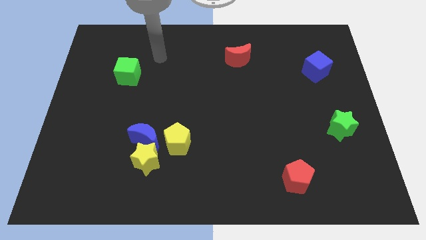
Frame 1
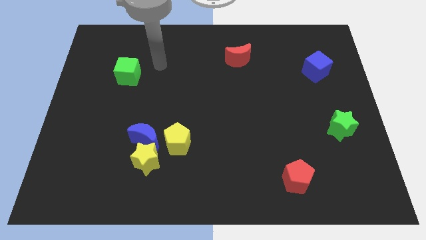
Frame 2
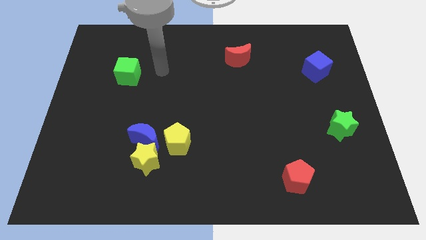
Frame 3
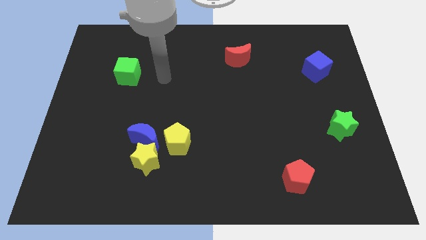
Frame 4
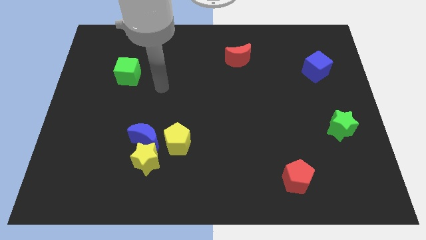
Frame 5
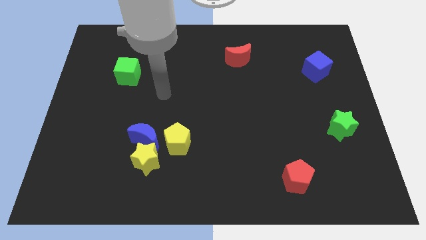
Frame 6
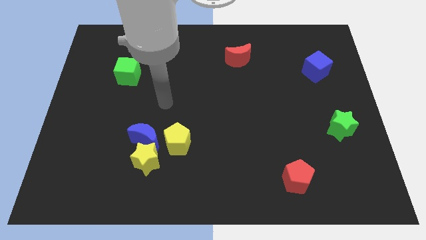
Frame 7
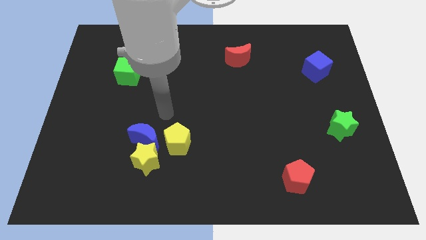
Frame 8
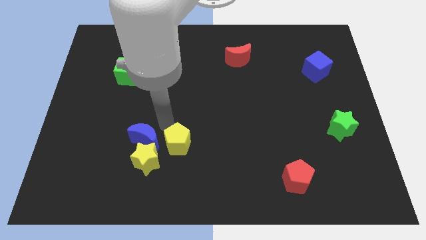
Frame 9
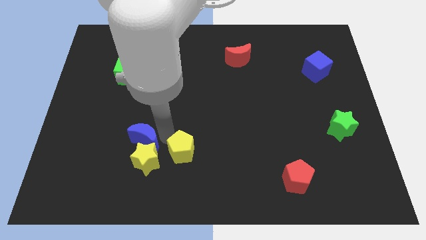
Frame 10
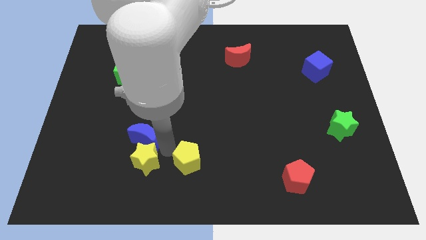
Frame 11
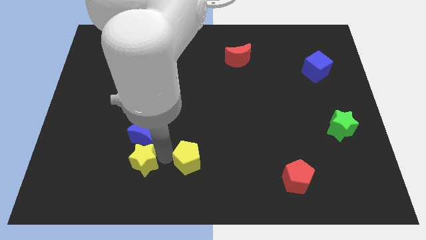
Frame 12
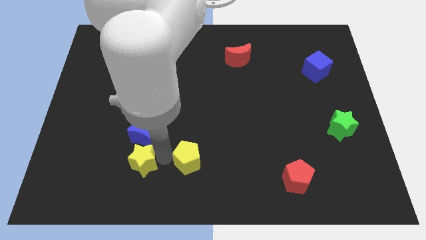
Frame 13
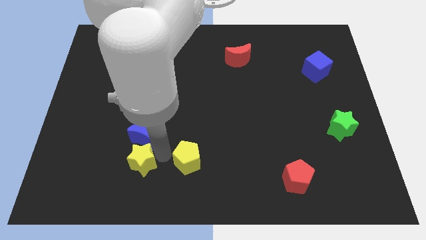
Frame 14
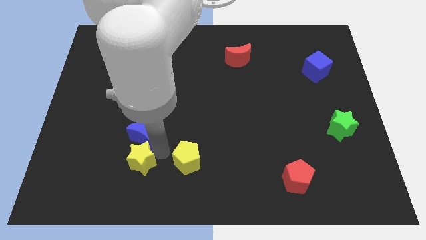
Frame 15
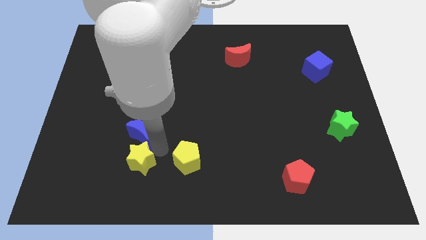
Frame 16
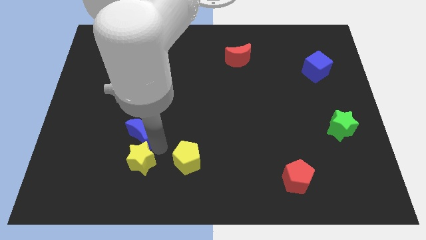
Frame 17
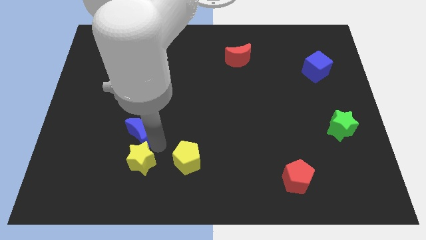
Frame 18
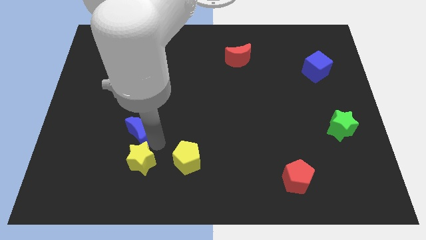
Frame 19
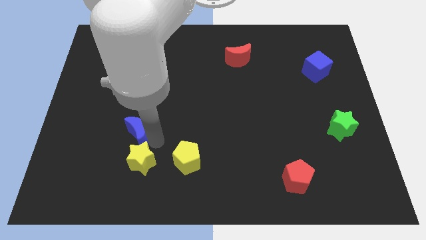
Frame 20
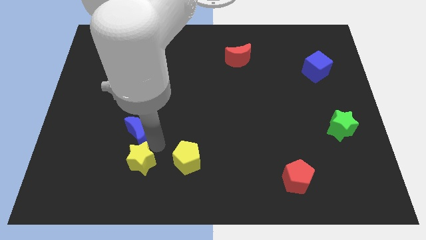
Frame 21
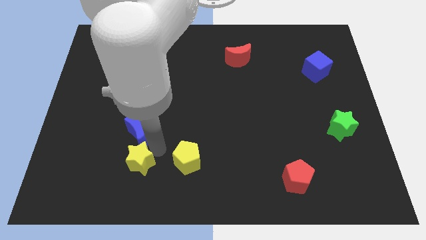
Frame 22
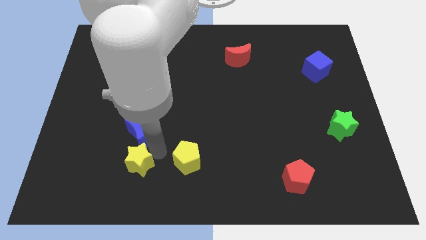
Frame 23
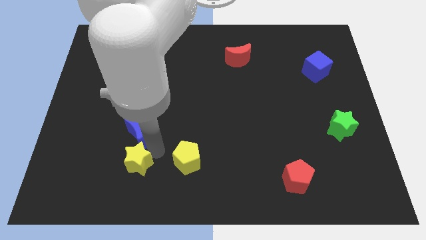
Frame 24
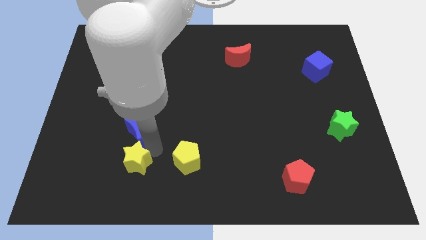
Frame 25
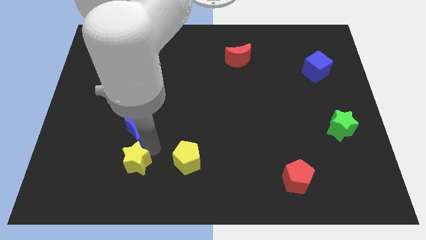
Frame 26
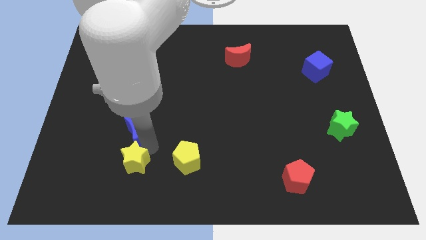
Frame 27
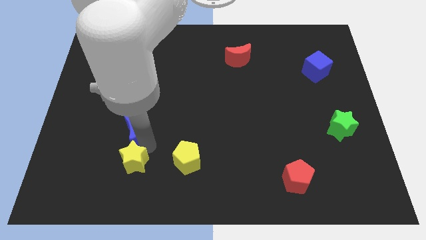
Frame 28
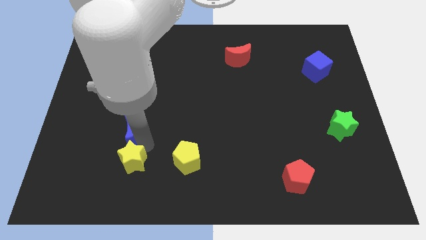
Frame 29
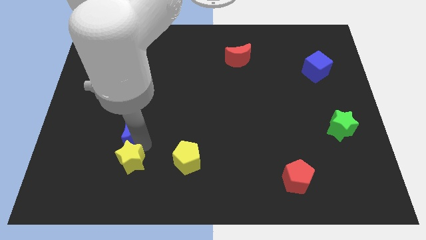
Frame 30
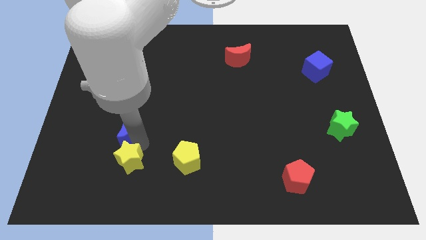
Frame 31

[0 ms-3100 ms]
move the blue moon away from the yellow star and yellow pentagon

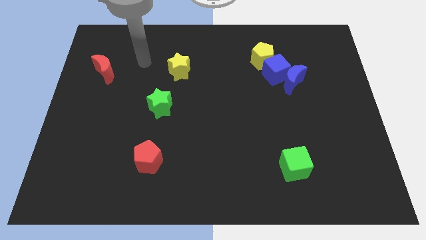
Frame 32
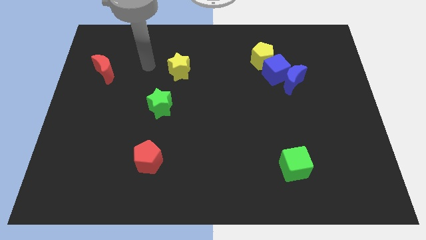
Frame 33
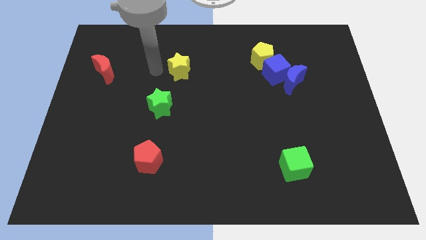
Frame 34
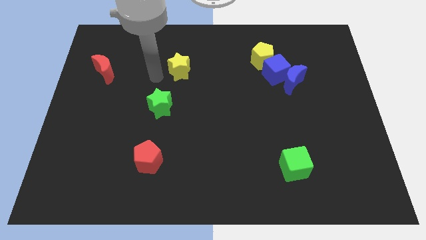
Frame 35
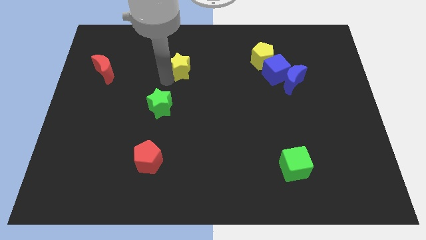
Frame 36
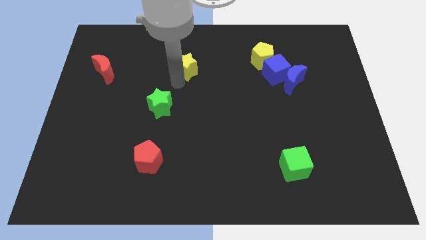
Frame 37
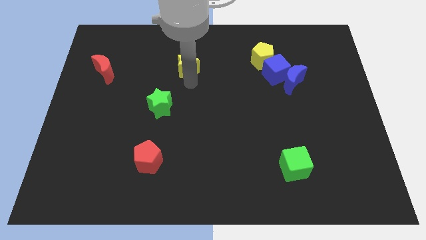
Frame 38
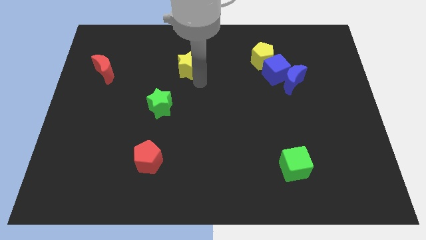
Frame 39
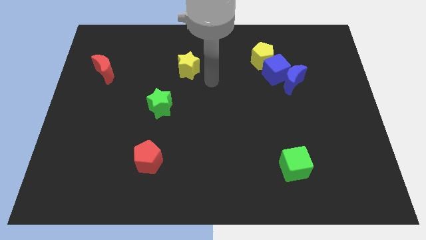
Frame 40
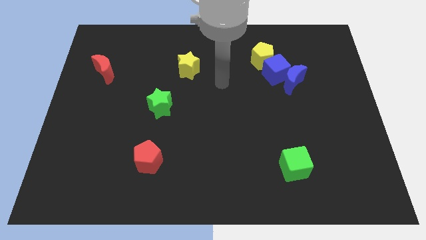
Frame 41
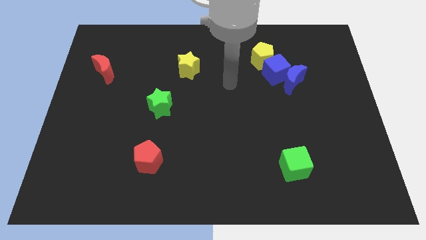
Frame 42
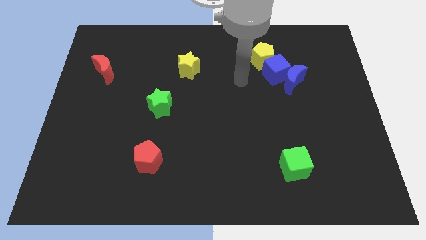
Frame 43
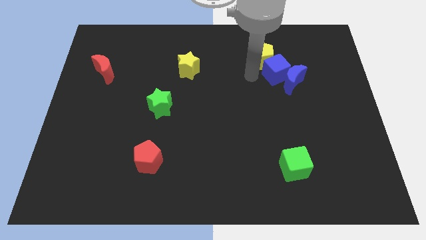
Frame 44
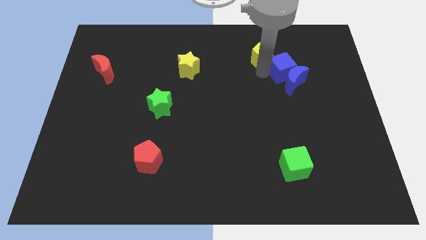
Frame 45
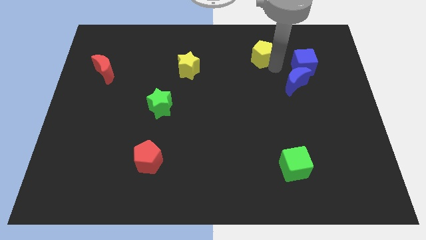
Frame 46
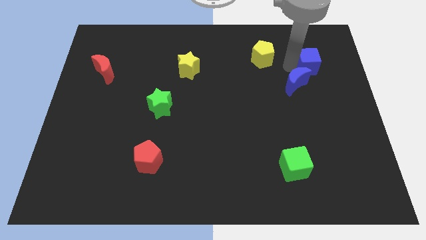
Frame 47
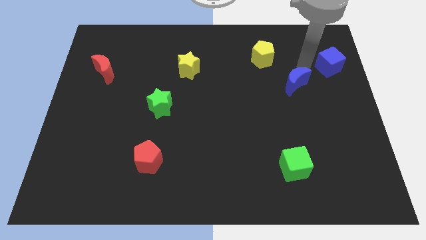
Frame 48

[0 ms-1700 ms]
pull the blue moon apart from the blue cube

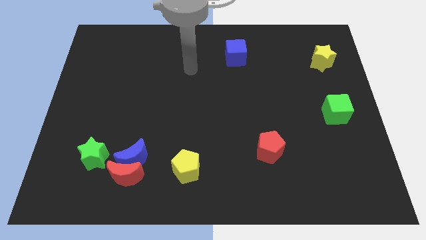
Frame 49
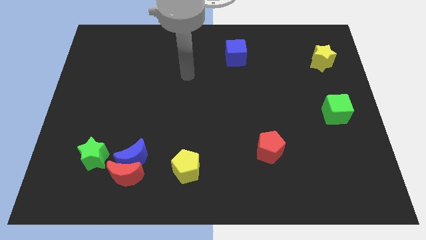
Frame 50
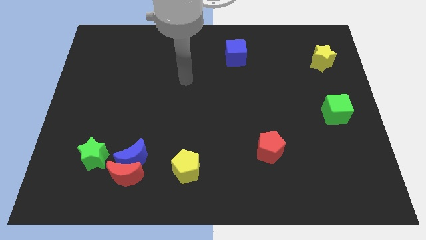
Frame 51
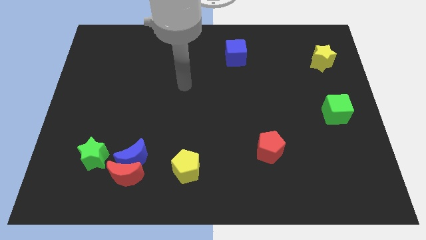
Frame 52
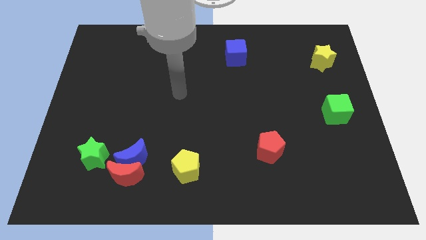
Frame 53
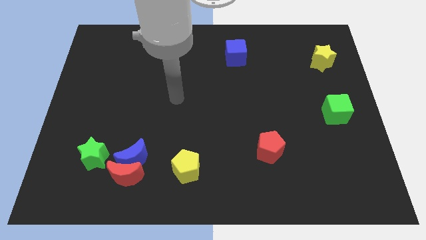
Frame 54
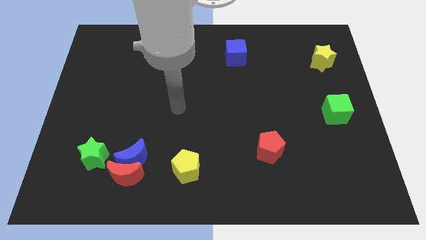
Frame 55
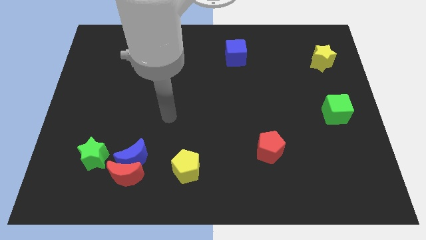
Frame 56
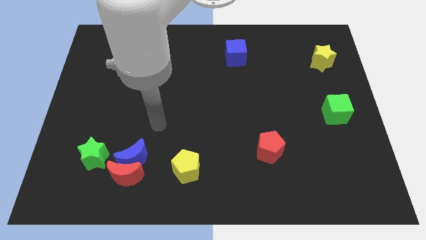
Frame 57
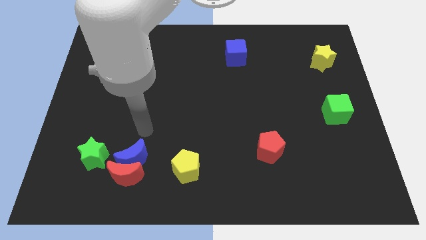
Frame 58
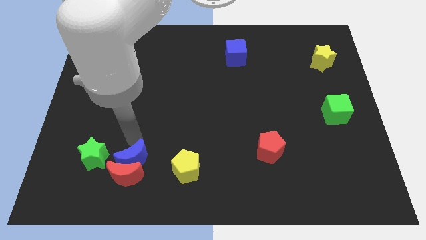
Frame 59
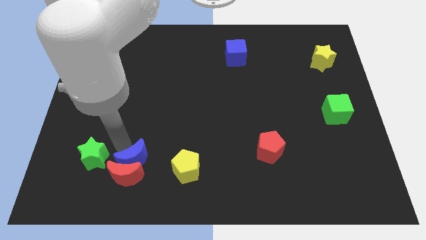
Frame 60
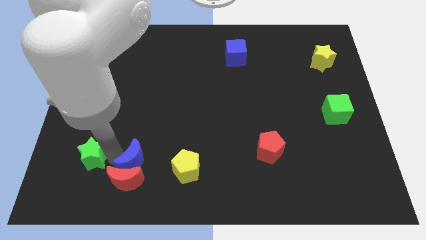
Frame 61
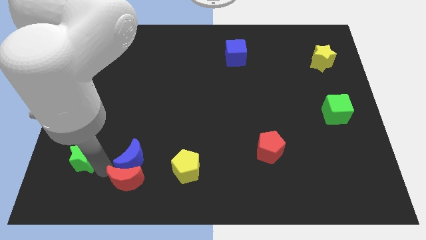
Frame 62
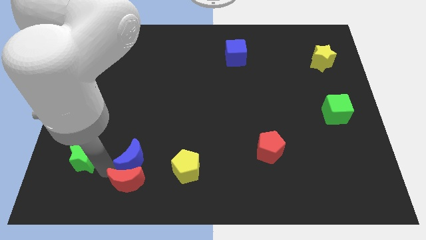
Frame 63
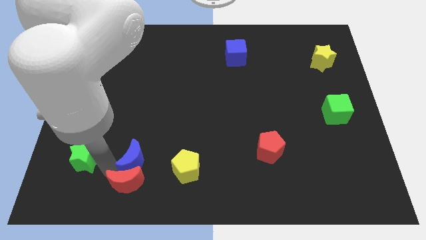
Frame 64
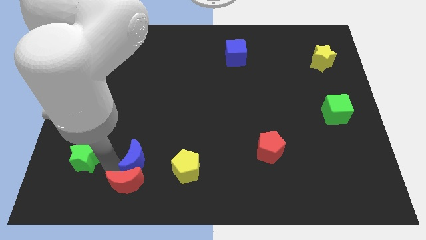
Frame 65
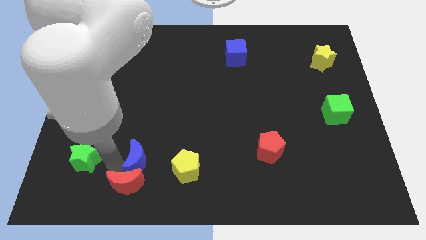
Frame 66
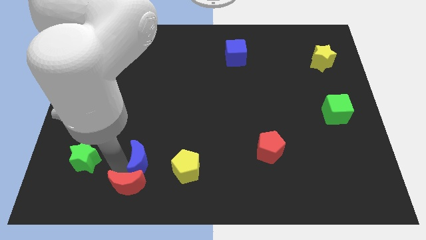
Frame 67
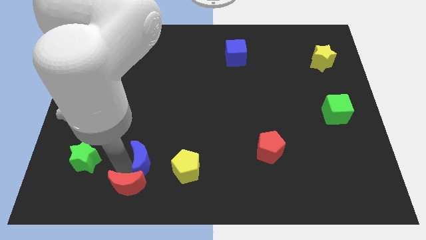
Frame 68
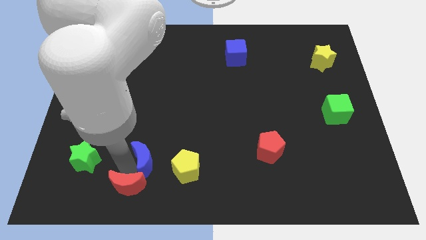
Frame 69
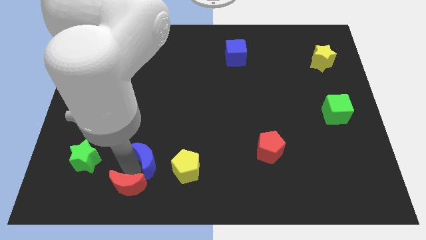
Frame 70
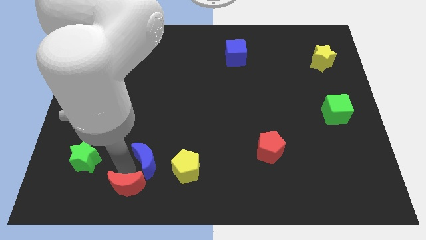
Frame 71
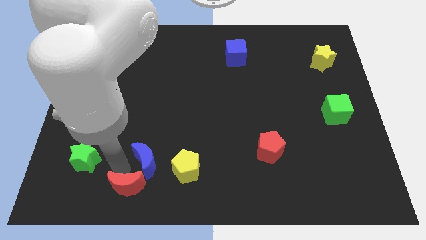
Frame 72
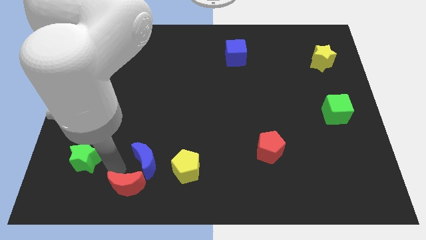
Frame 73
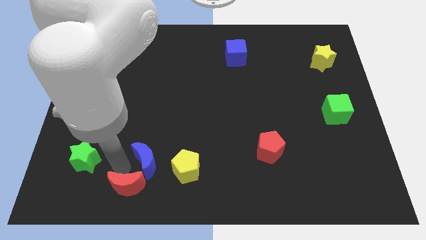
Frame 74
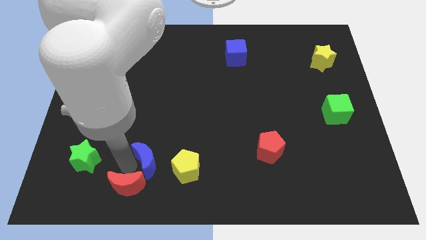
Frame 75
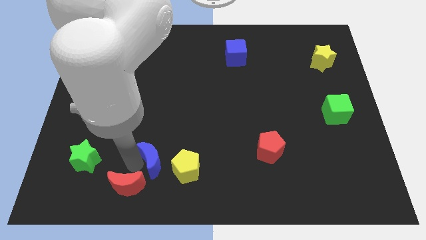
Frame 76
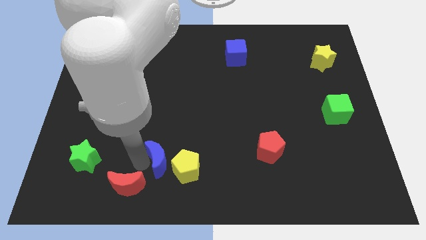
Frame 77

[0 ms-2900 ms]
move the blue moon away from the red moon and green star

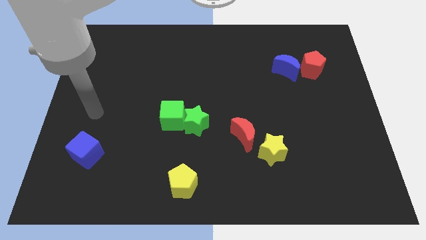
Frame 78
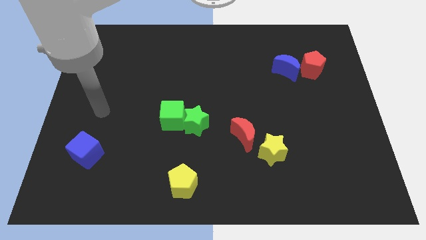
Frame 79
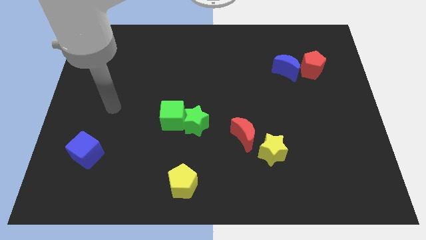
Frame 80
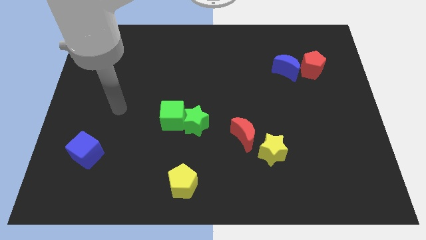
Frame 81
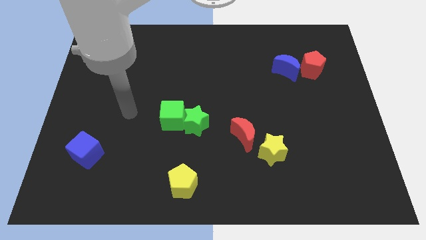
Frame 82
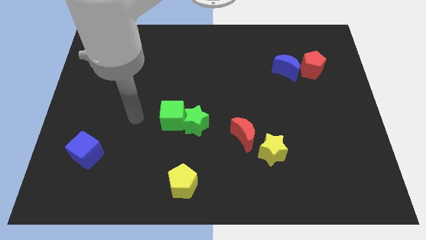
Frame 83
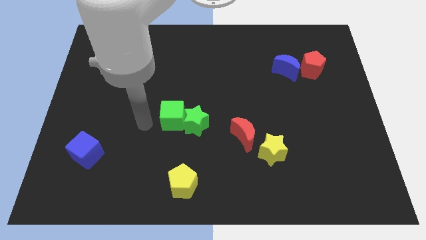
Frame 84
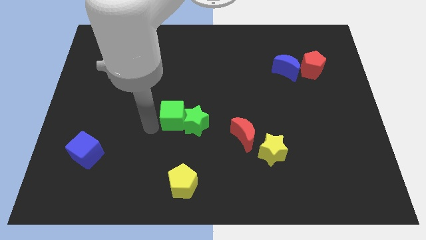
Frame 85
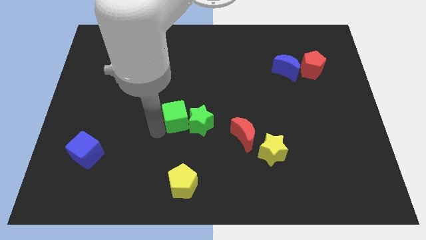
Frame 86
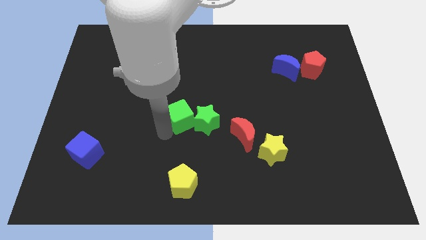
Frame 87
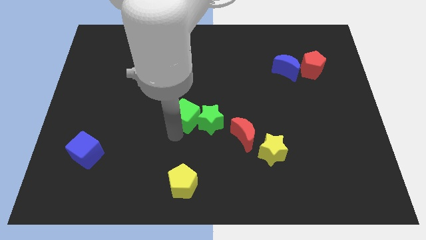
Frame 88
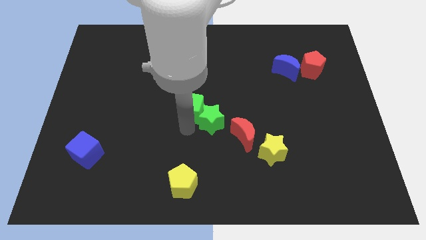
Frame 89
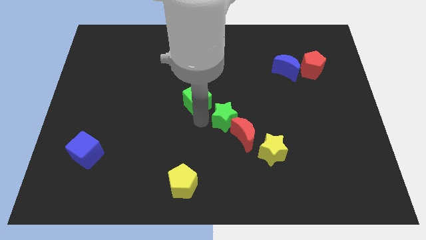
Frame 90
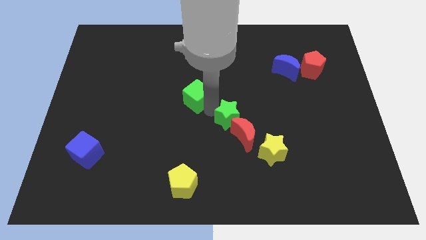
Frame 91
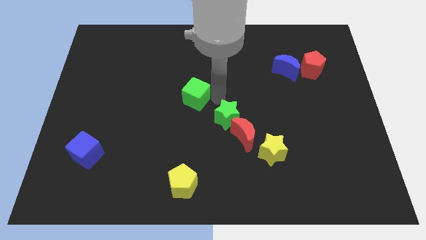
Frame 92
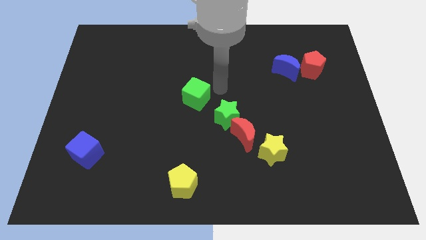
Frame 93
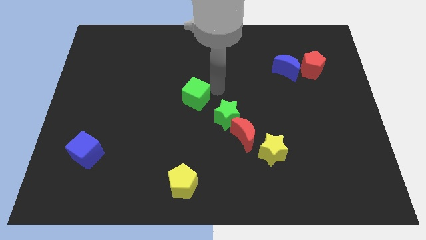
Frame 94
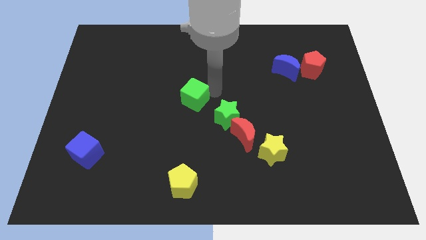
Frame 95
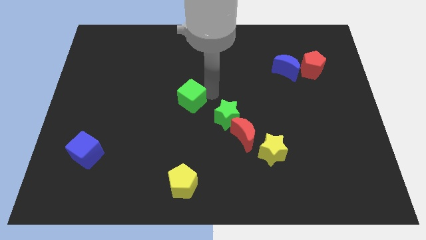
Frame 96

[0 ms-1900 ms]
move the green cube away from the green star
